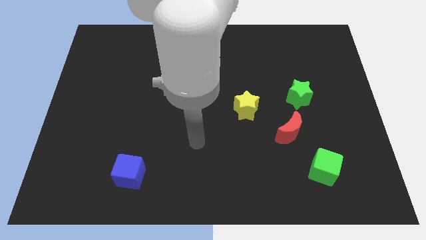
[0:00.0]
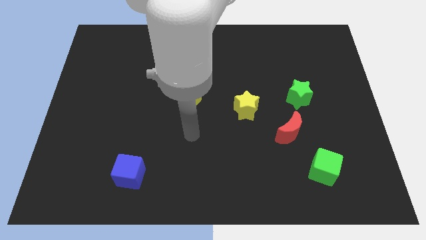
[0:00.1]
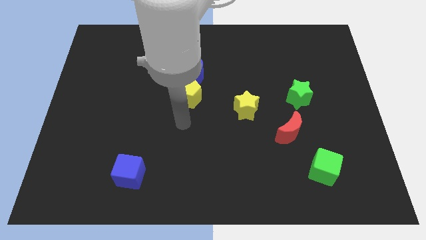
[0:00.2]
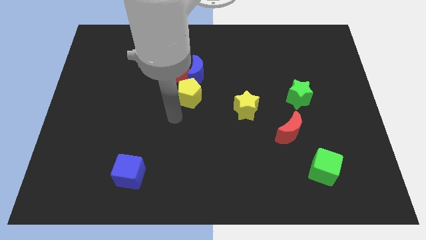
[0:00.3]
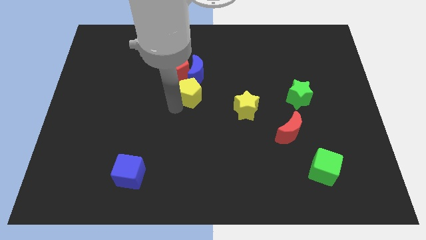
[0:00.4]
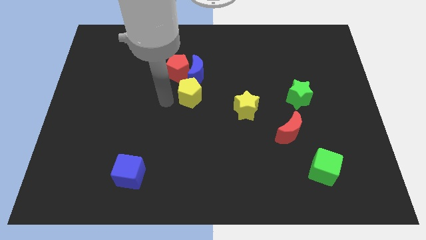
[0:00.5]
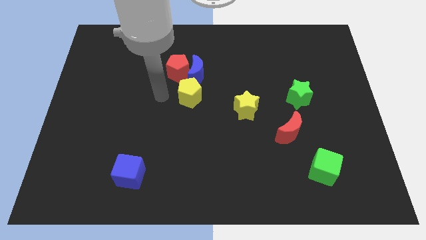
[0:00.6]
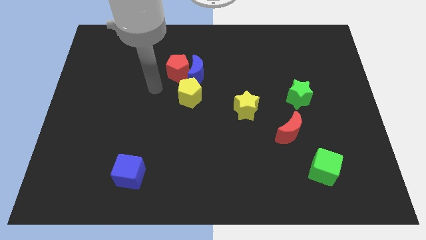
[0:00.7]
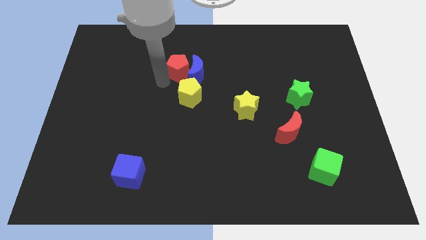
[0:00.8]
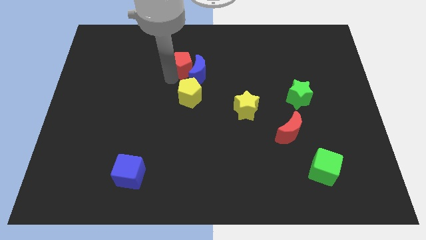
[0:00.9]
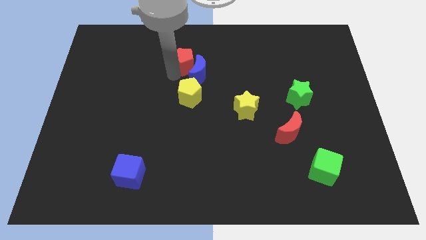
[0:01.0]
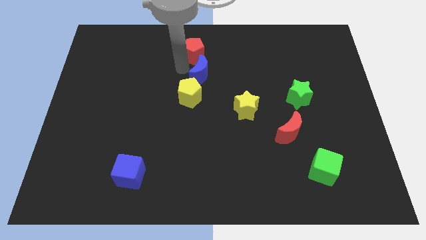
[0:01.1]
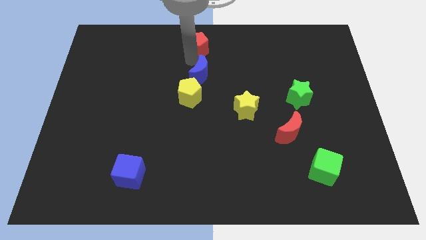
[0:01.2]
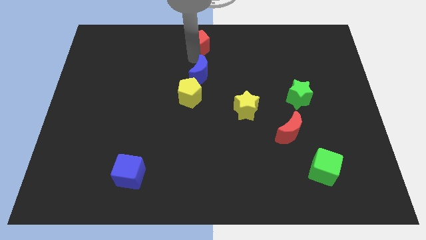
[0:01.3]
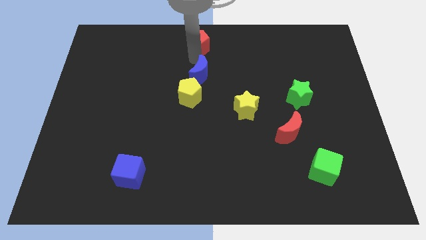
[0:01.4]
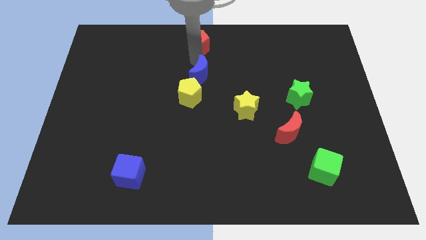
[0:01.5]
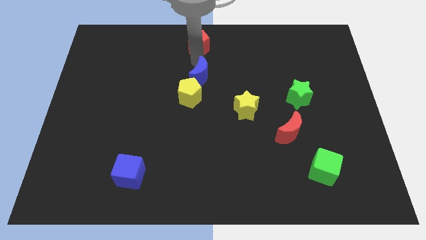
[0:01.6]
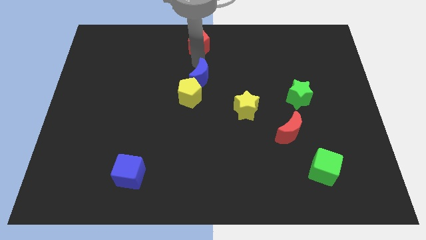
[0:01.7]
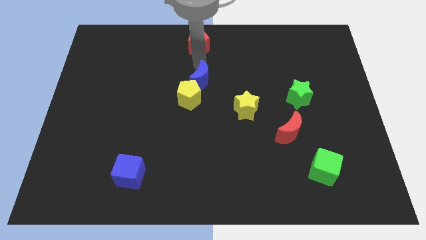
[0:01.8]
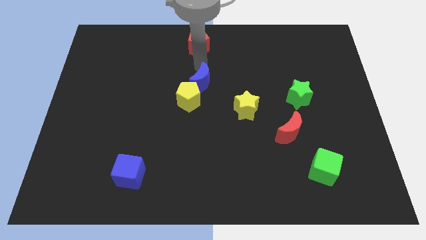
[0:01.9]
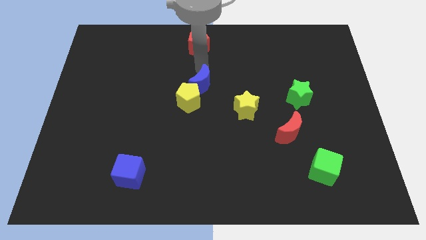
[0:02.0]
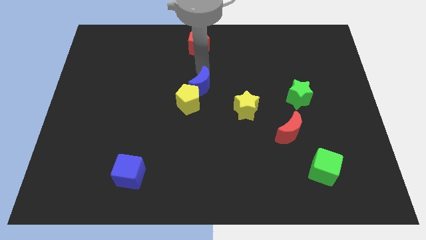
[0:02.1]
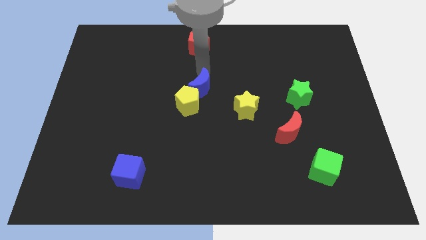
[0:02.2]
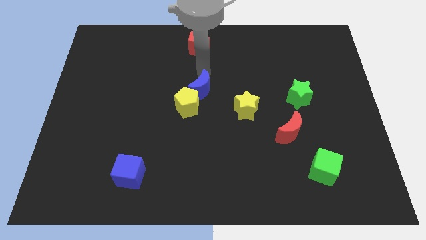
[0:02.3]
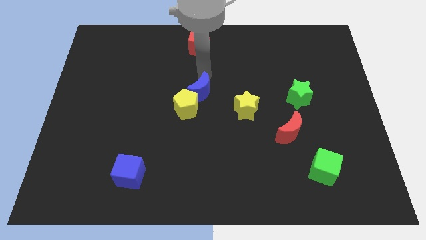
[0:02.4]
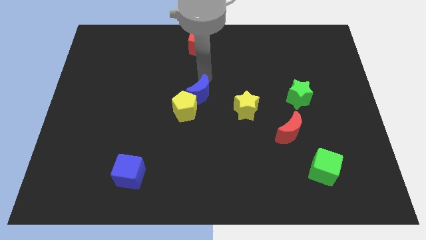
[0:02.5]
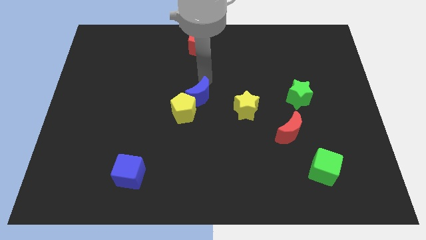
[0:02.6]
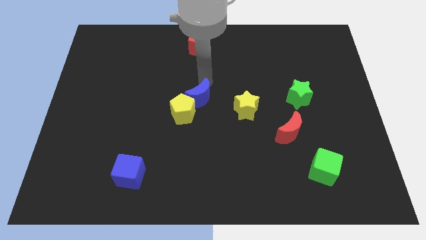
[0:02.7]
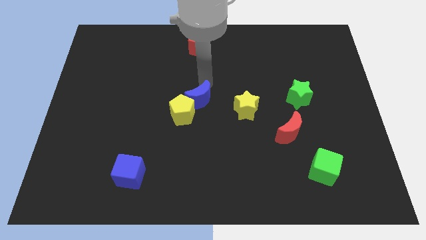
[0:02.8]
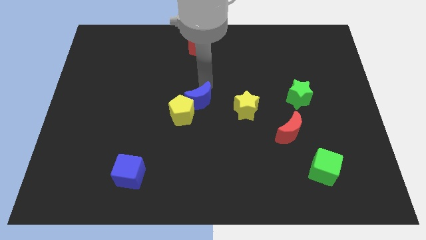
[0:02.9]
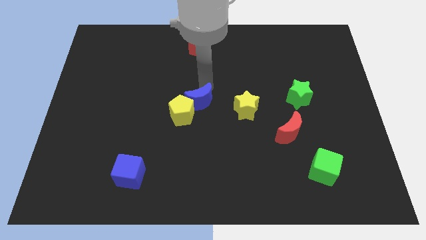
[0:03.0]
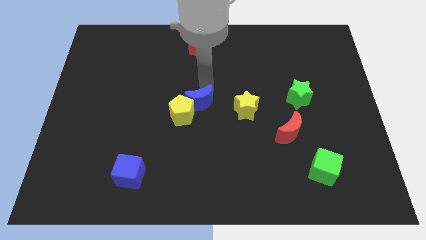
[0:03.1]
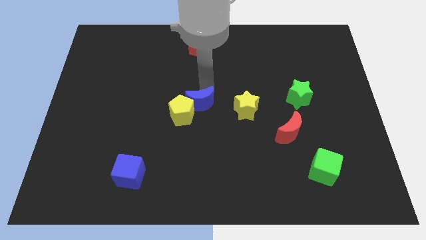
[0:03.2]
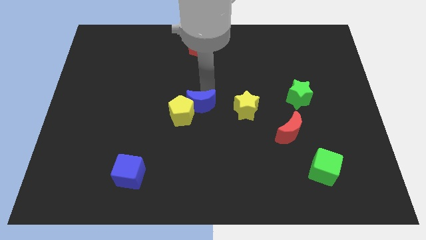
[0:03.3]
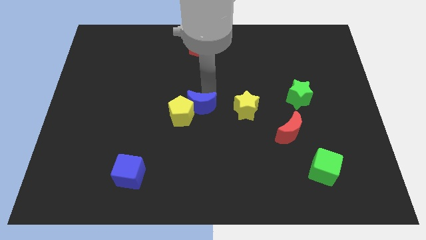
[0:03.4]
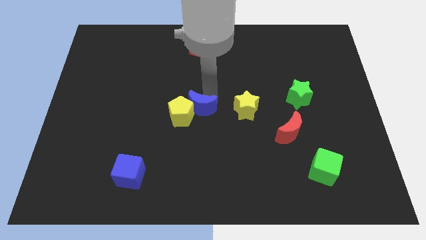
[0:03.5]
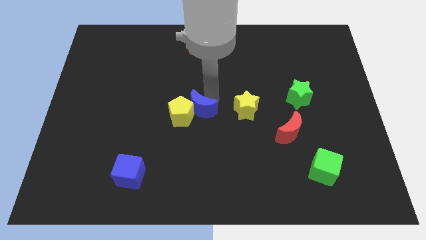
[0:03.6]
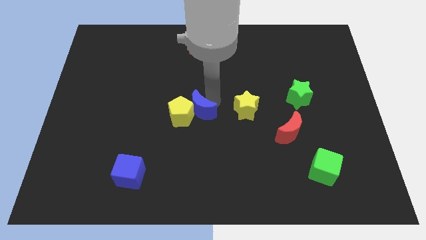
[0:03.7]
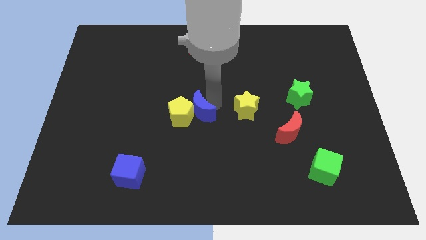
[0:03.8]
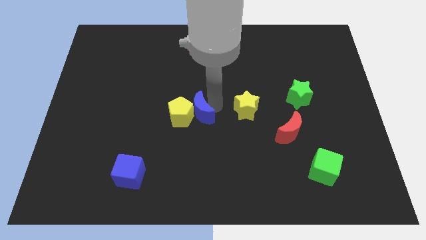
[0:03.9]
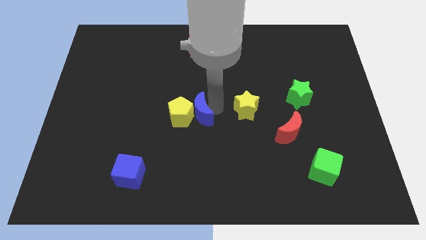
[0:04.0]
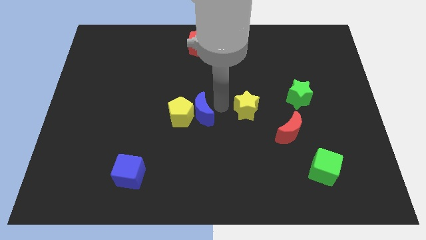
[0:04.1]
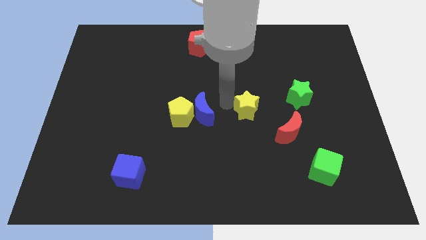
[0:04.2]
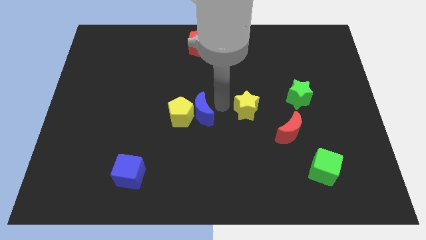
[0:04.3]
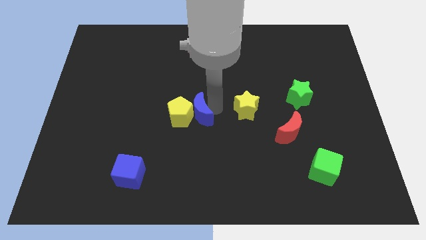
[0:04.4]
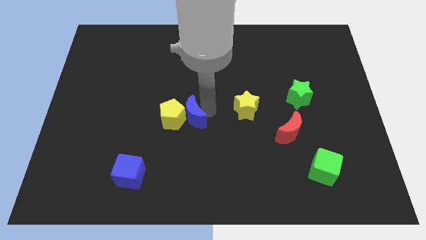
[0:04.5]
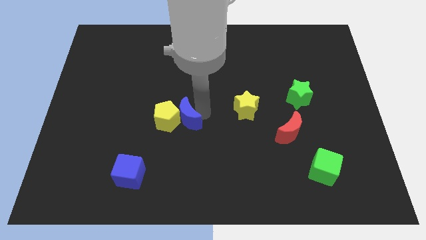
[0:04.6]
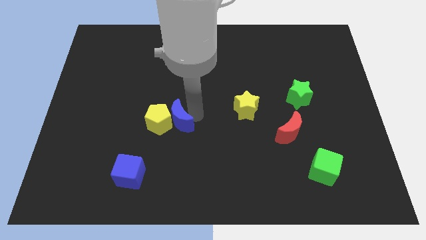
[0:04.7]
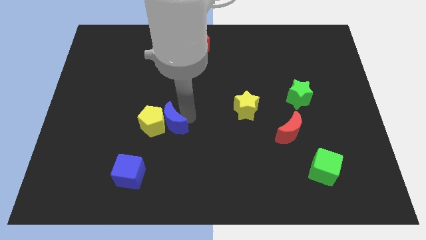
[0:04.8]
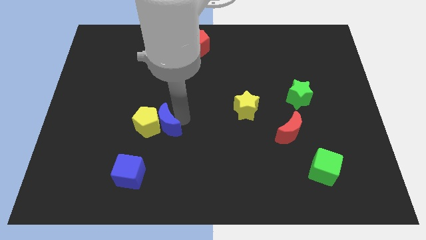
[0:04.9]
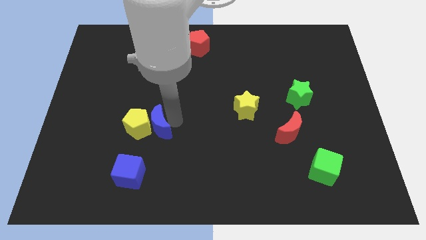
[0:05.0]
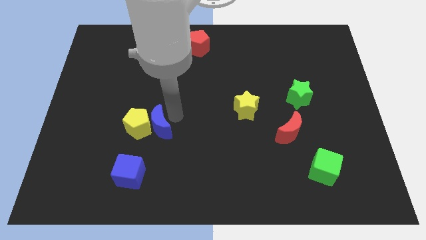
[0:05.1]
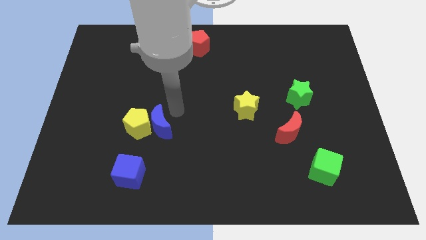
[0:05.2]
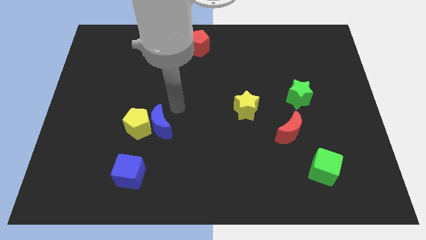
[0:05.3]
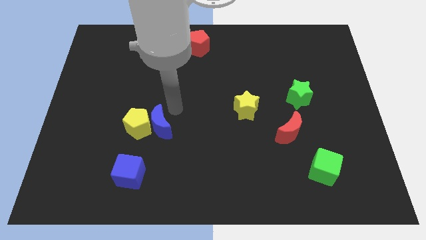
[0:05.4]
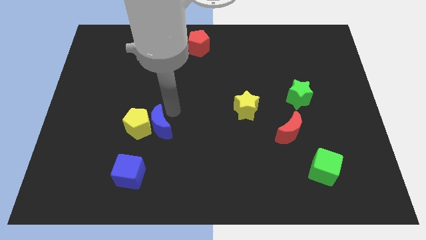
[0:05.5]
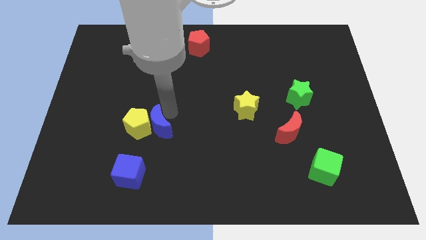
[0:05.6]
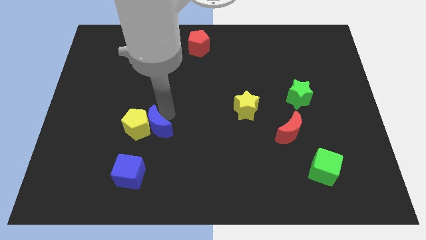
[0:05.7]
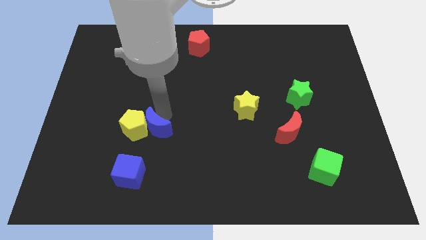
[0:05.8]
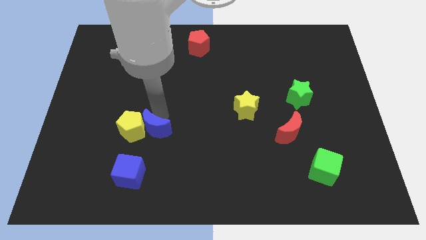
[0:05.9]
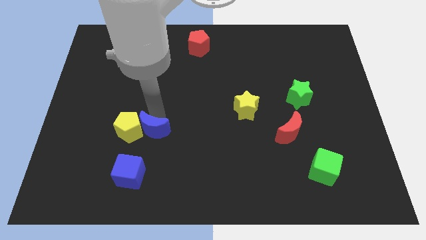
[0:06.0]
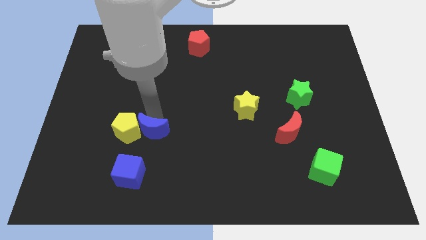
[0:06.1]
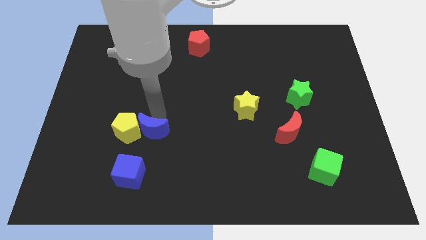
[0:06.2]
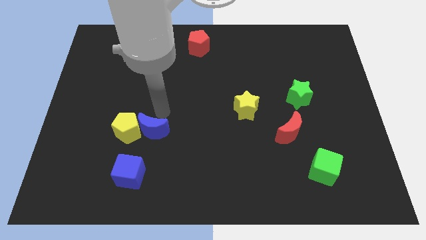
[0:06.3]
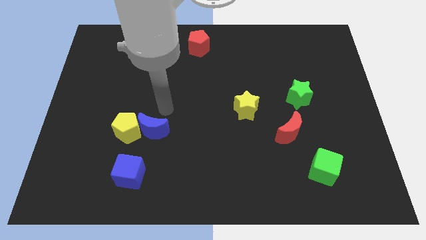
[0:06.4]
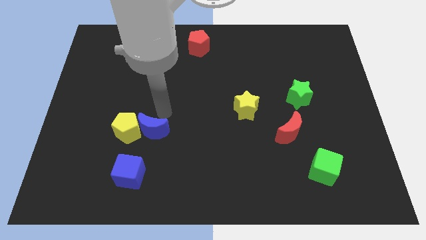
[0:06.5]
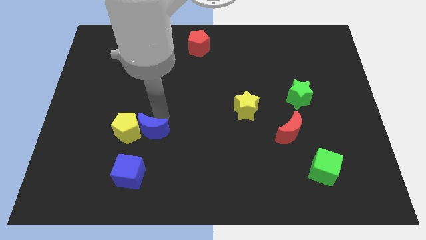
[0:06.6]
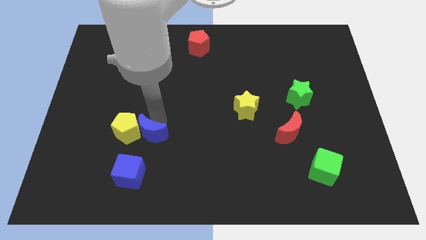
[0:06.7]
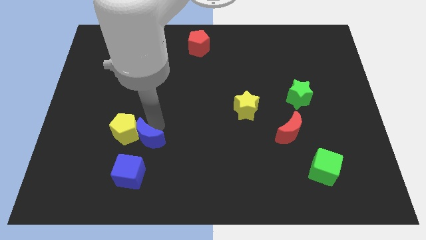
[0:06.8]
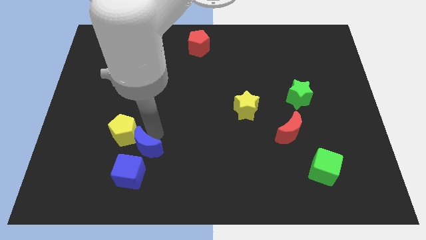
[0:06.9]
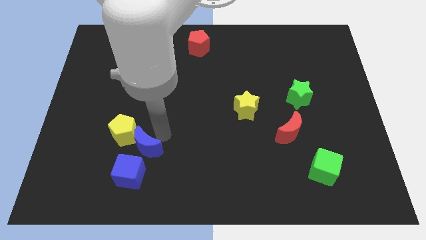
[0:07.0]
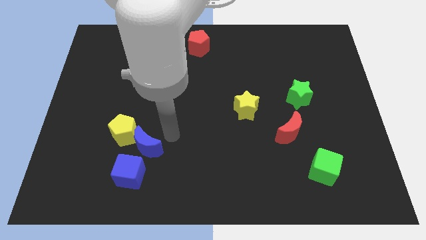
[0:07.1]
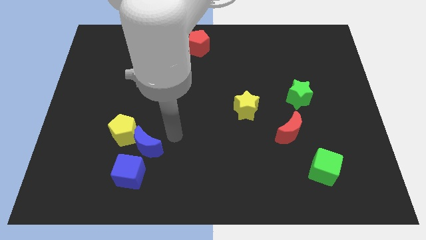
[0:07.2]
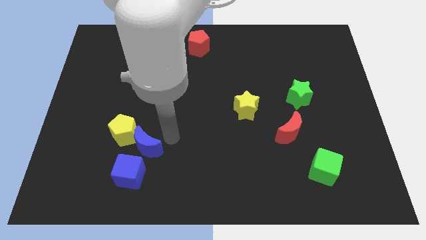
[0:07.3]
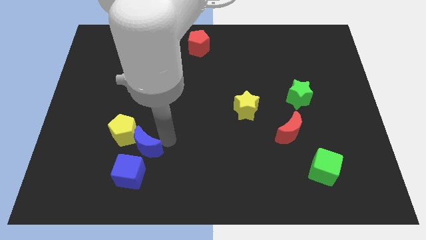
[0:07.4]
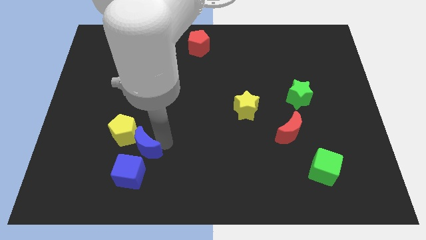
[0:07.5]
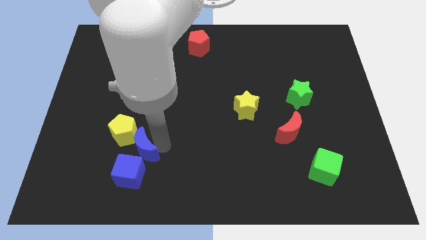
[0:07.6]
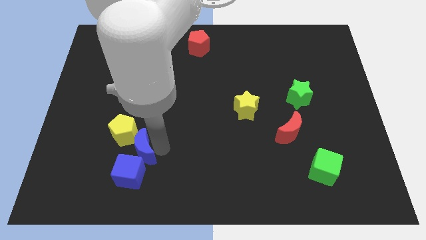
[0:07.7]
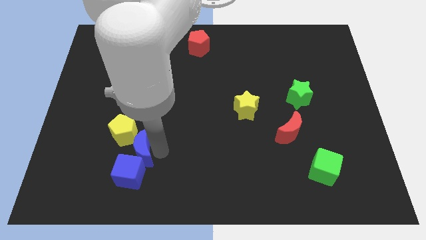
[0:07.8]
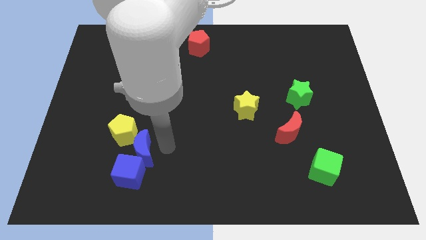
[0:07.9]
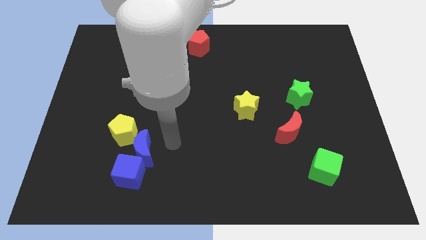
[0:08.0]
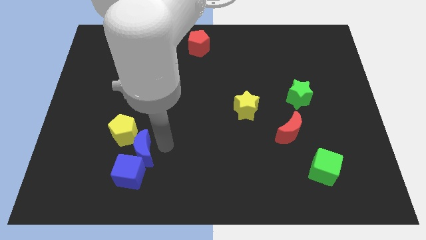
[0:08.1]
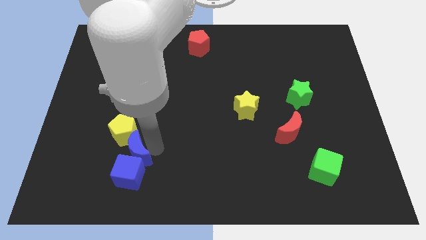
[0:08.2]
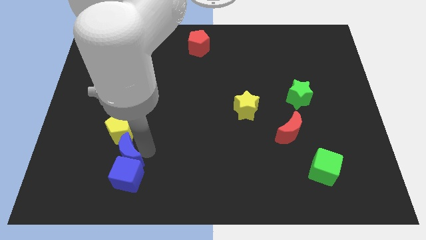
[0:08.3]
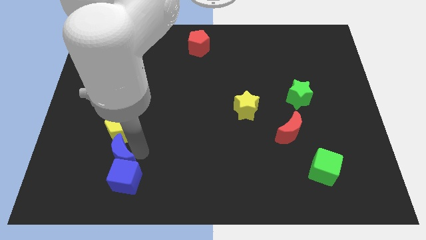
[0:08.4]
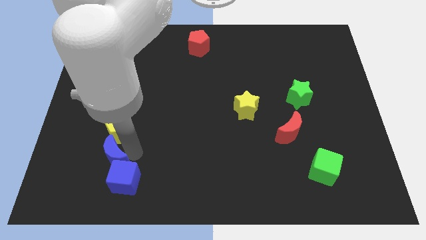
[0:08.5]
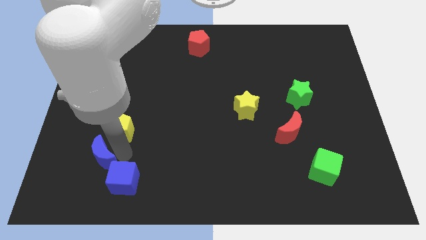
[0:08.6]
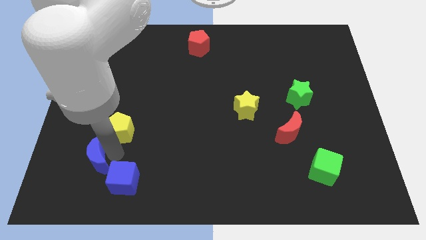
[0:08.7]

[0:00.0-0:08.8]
slide the blue moon left of the blue cube
